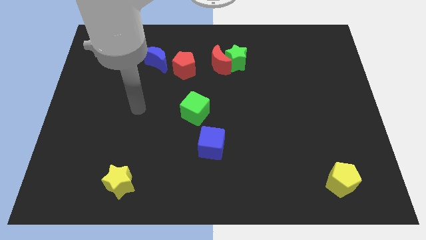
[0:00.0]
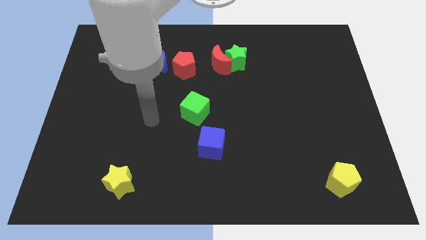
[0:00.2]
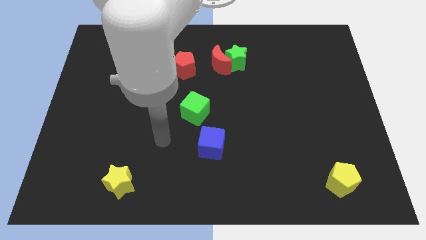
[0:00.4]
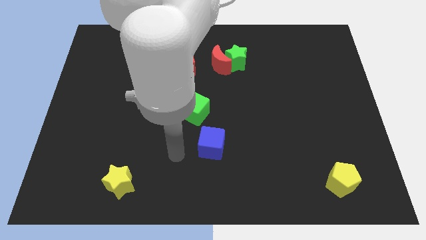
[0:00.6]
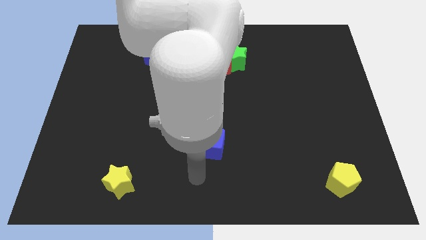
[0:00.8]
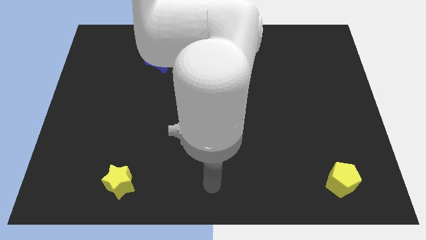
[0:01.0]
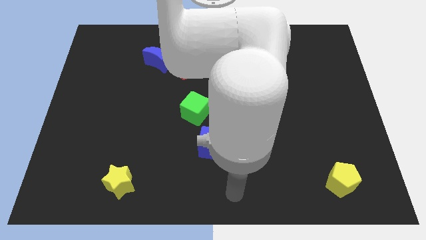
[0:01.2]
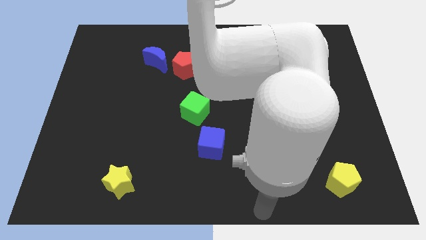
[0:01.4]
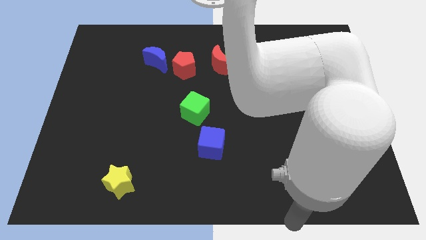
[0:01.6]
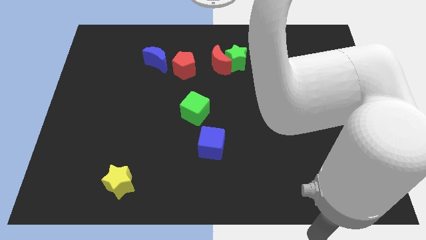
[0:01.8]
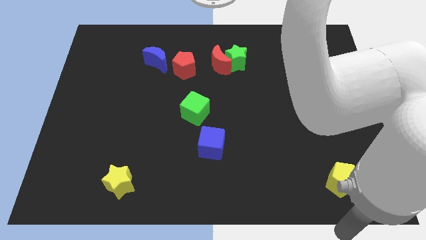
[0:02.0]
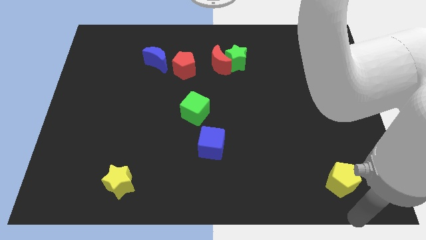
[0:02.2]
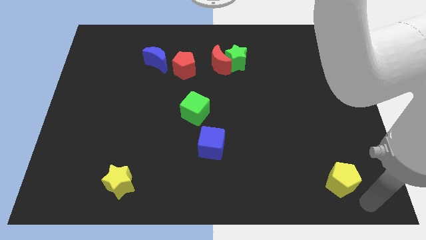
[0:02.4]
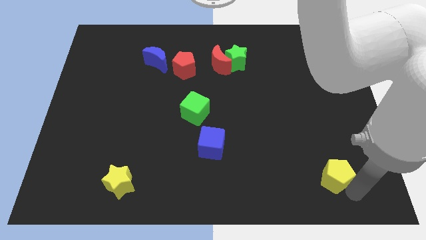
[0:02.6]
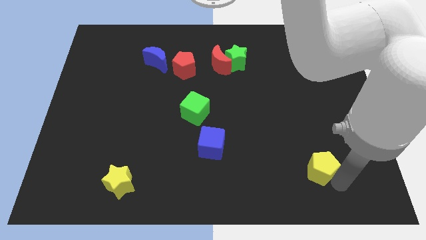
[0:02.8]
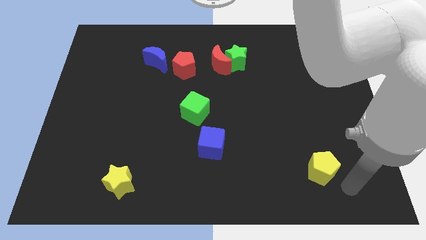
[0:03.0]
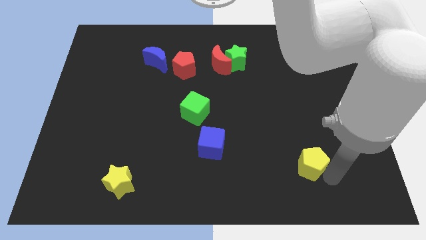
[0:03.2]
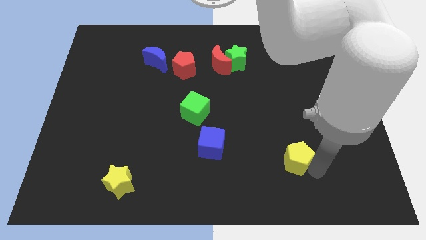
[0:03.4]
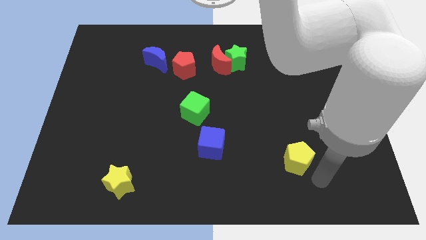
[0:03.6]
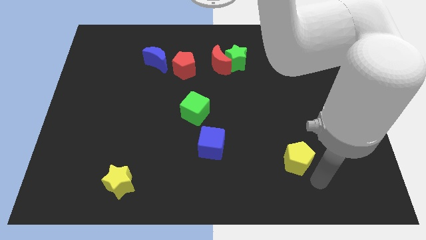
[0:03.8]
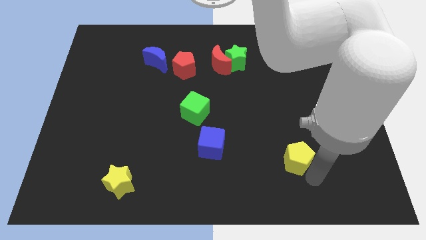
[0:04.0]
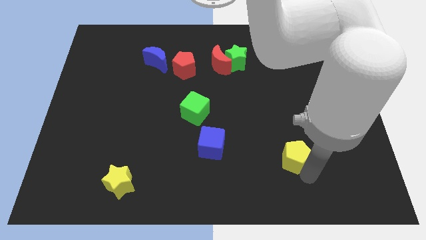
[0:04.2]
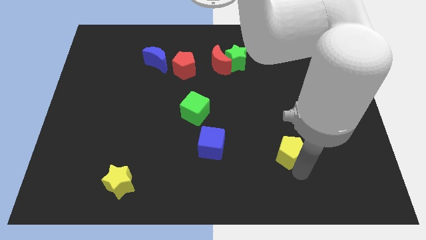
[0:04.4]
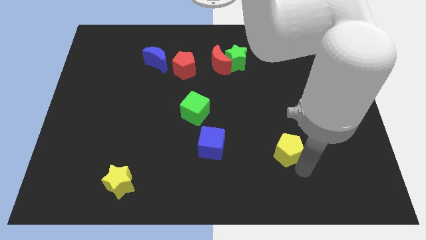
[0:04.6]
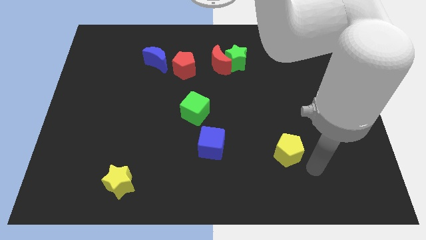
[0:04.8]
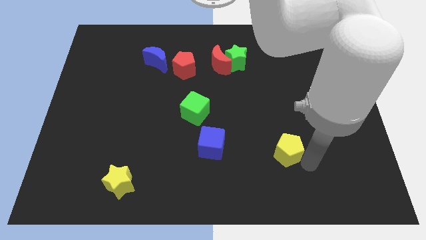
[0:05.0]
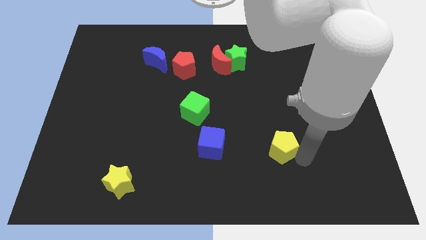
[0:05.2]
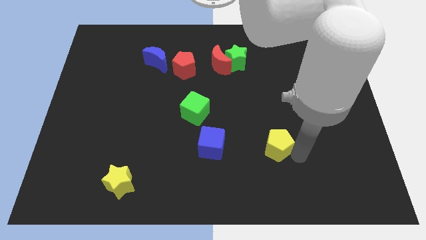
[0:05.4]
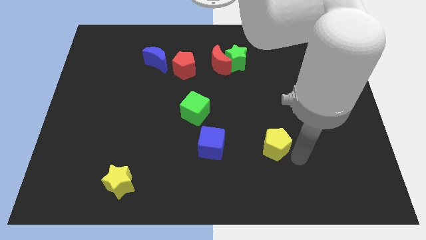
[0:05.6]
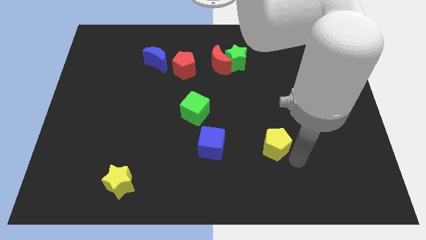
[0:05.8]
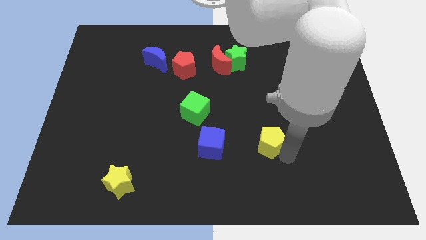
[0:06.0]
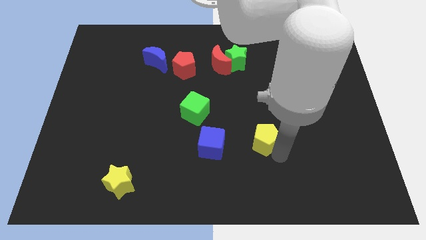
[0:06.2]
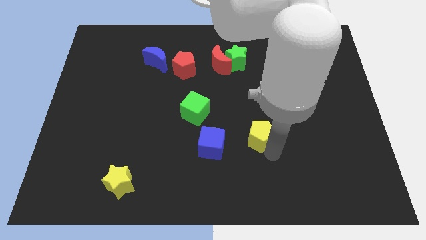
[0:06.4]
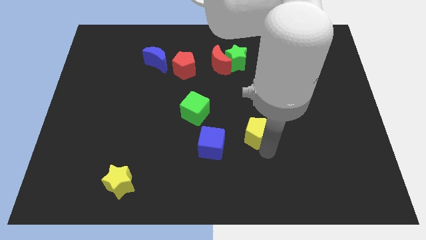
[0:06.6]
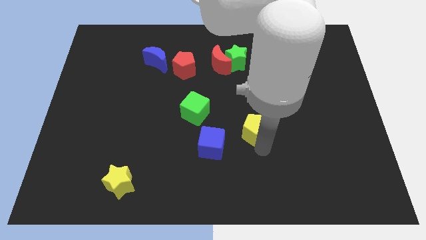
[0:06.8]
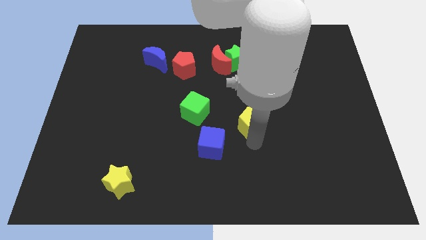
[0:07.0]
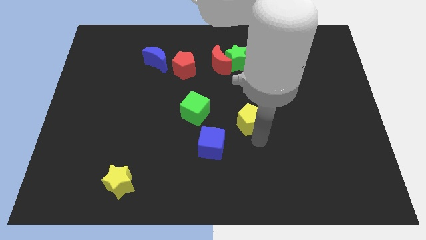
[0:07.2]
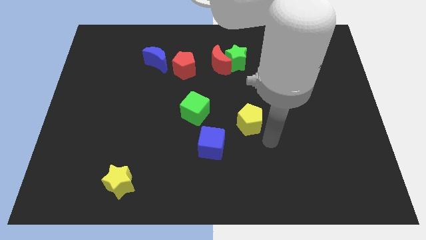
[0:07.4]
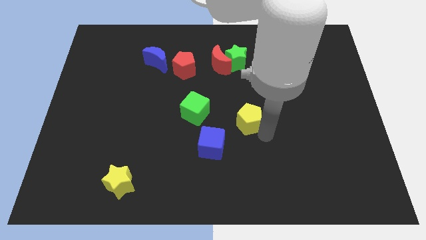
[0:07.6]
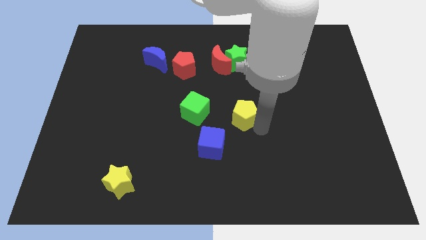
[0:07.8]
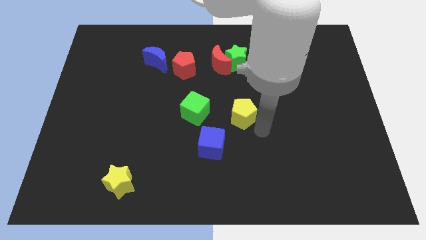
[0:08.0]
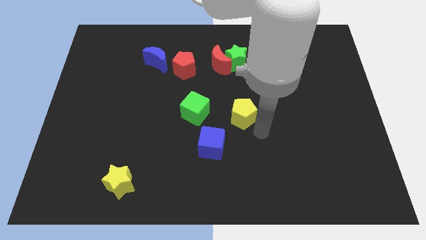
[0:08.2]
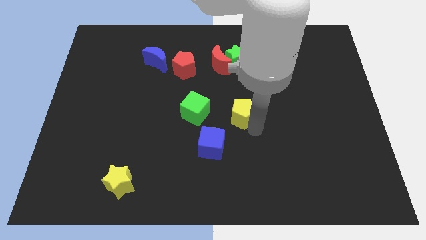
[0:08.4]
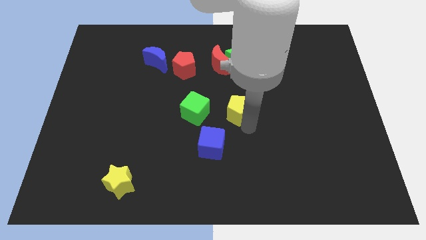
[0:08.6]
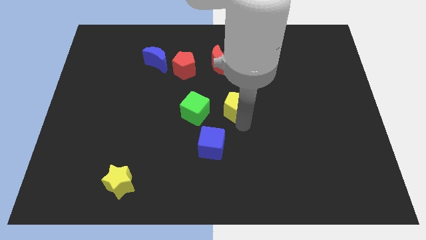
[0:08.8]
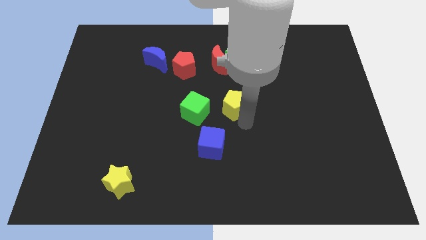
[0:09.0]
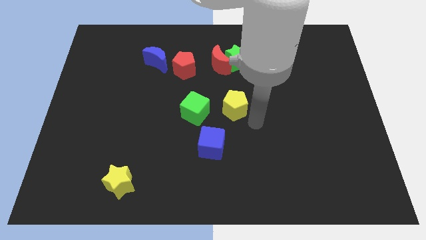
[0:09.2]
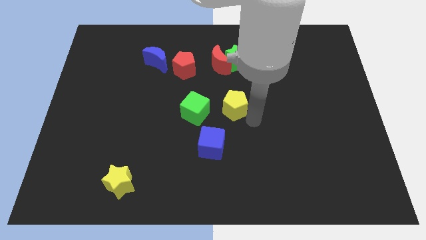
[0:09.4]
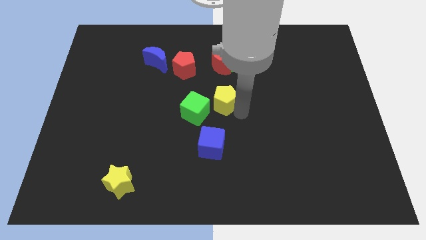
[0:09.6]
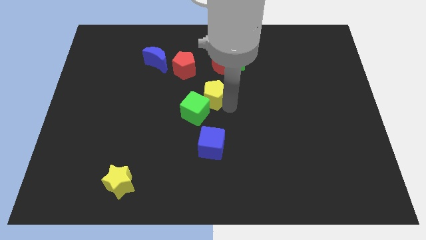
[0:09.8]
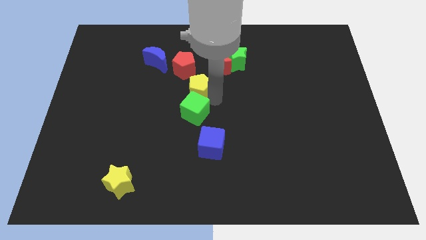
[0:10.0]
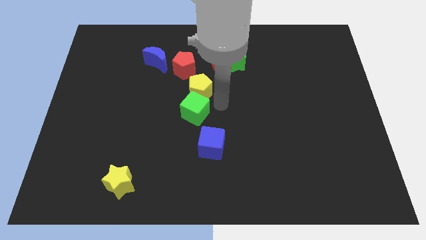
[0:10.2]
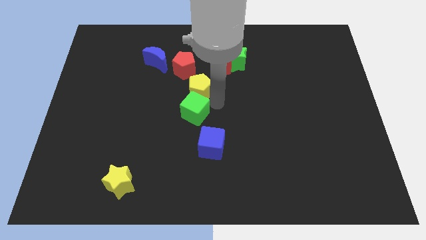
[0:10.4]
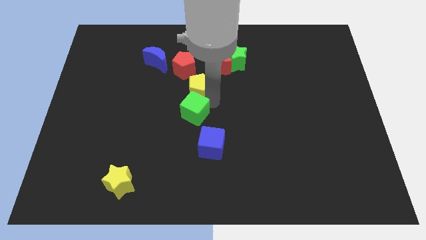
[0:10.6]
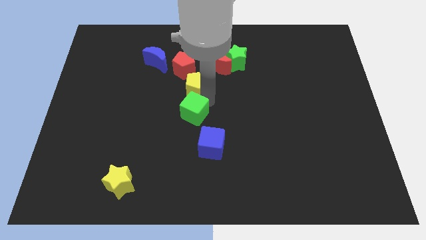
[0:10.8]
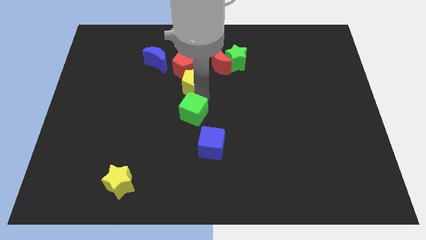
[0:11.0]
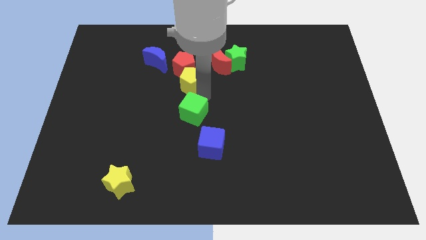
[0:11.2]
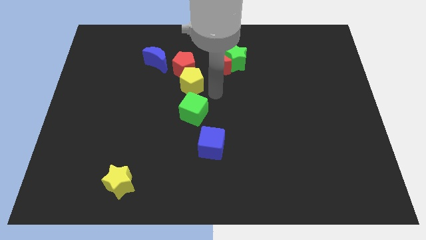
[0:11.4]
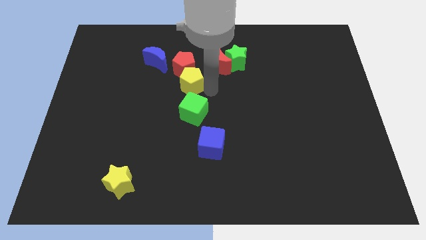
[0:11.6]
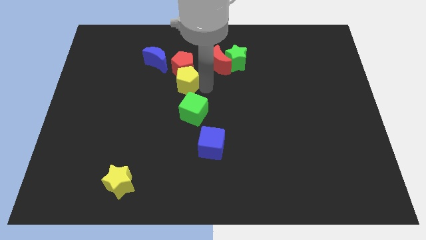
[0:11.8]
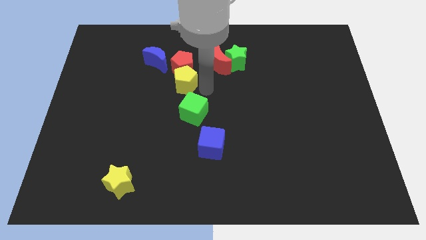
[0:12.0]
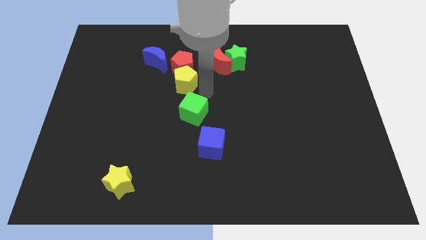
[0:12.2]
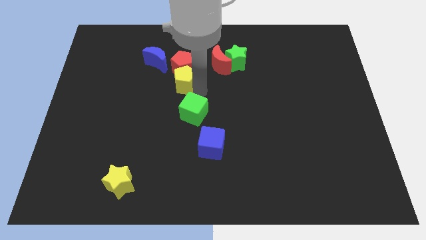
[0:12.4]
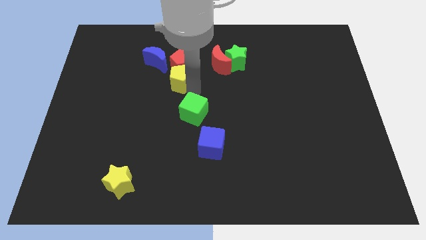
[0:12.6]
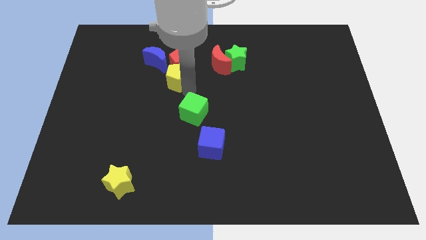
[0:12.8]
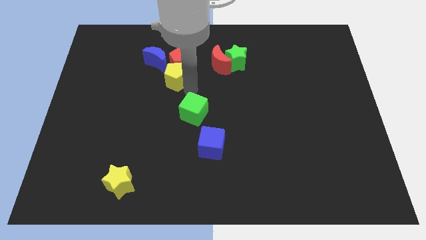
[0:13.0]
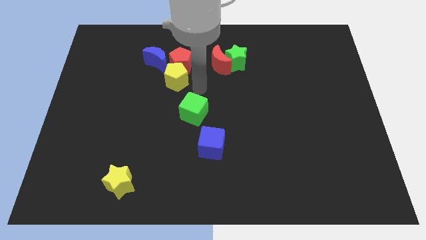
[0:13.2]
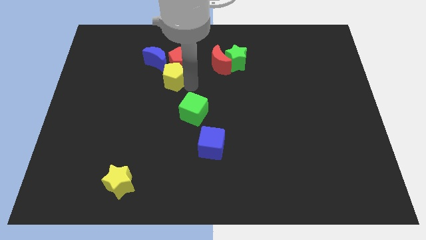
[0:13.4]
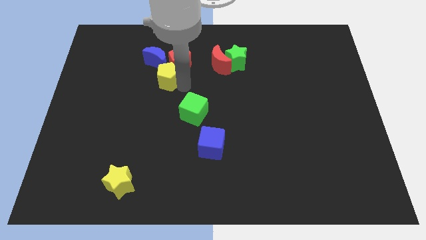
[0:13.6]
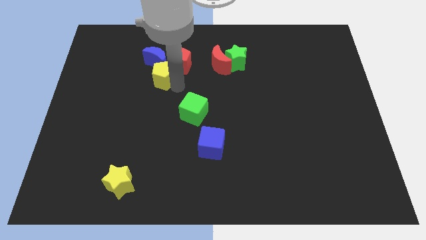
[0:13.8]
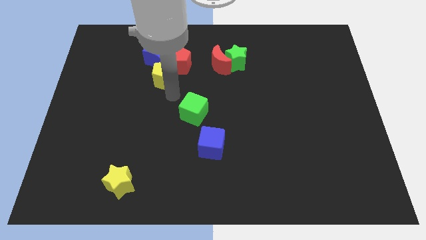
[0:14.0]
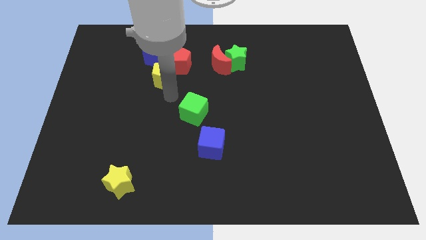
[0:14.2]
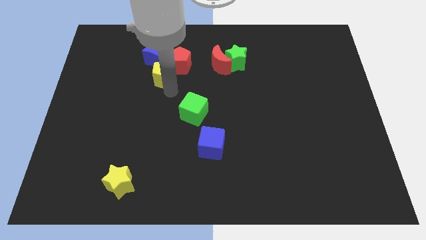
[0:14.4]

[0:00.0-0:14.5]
put the yellow pentagon towards the blue moon

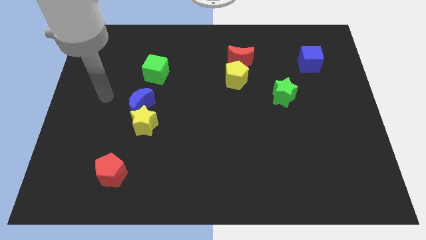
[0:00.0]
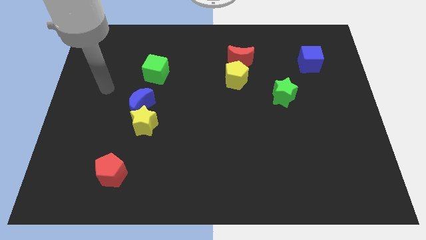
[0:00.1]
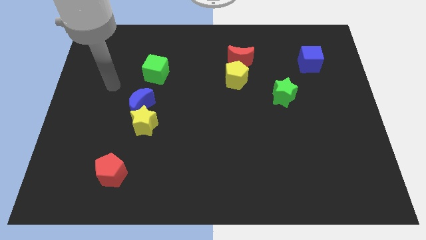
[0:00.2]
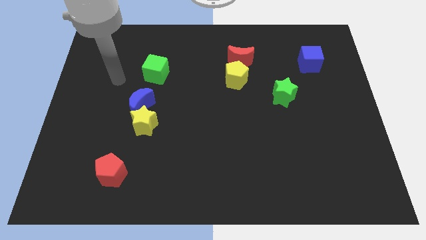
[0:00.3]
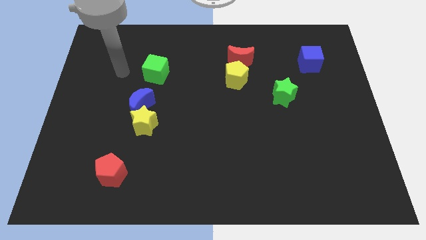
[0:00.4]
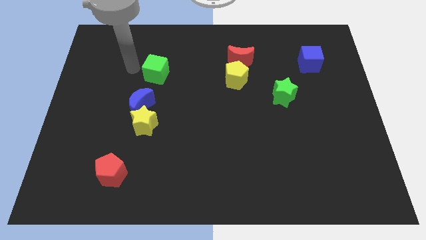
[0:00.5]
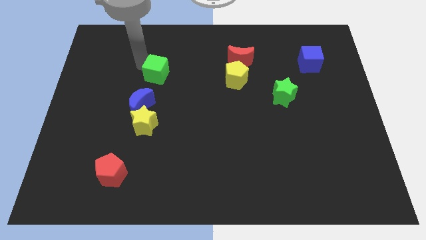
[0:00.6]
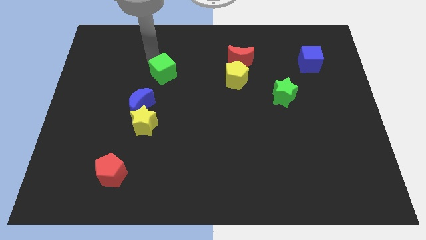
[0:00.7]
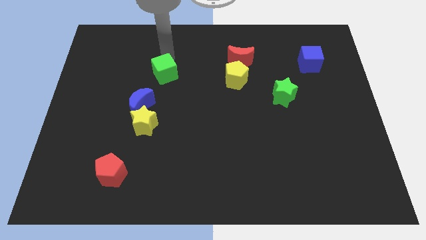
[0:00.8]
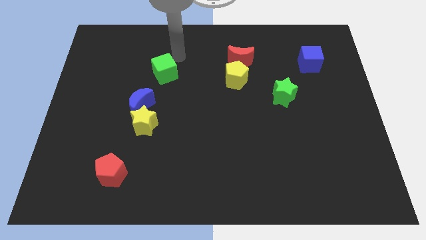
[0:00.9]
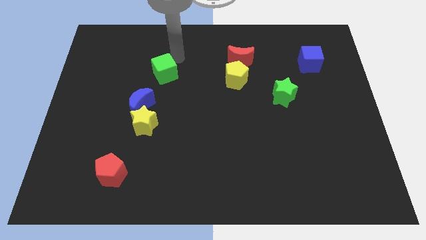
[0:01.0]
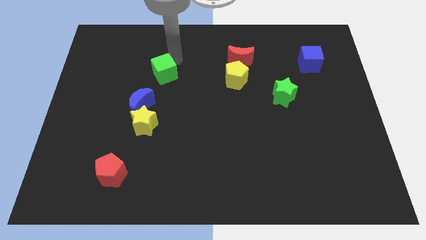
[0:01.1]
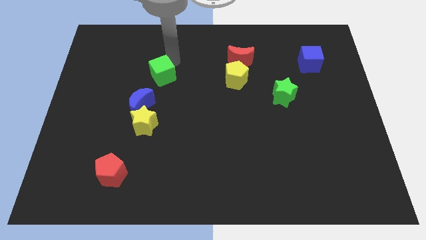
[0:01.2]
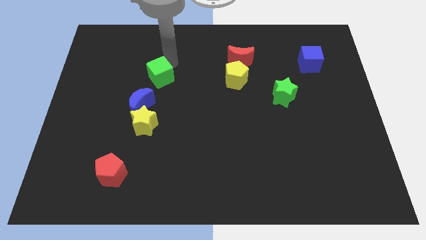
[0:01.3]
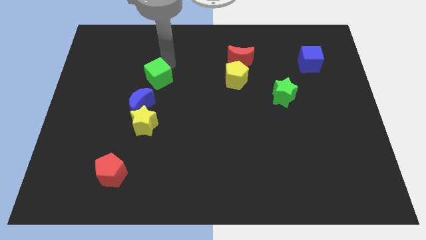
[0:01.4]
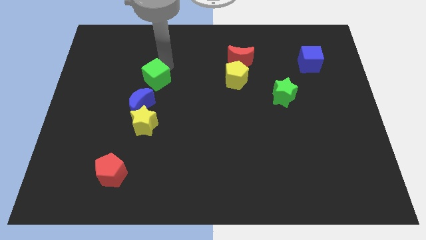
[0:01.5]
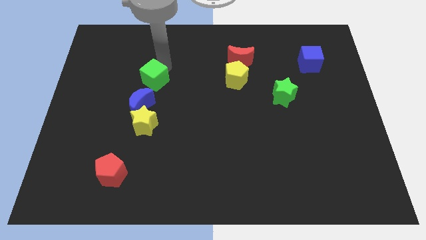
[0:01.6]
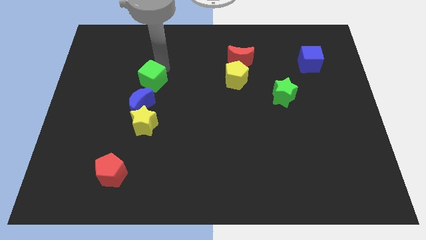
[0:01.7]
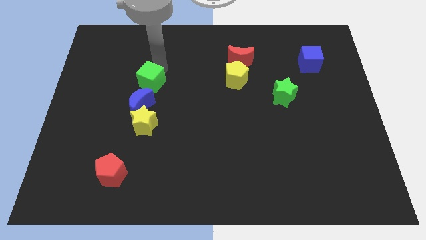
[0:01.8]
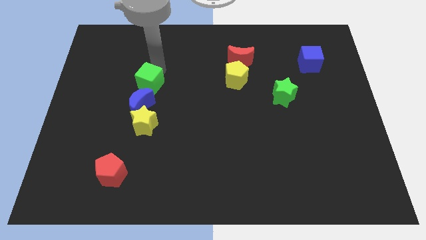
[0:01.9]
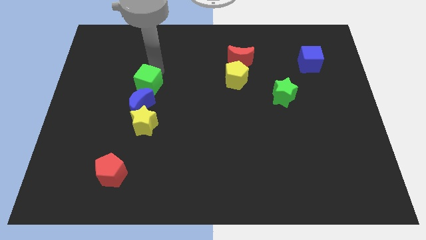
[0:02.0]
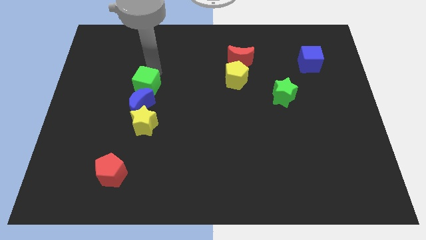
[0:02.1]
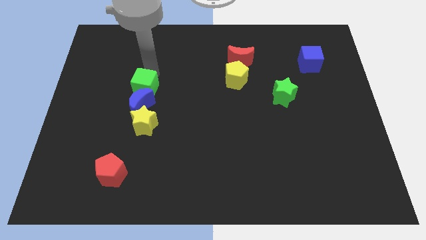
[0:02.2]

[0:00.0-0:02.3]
push the green cube towards the blue moon
